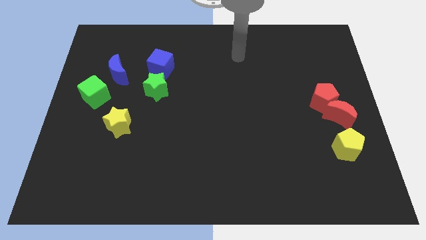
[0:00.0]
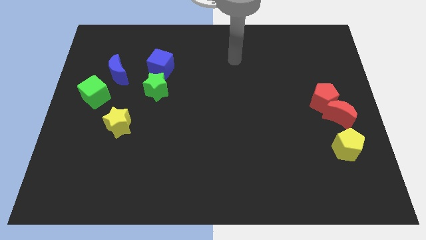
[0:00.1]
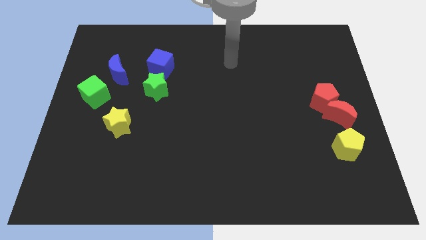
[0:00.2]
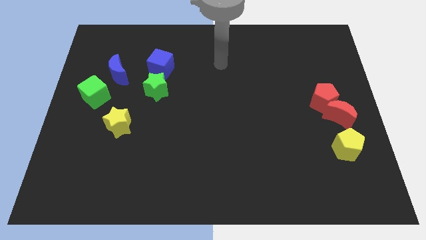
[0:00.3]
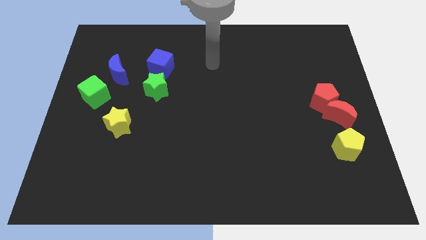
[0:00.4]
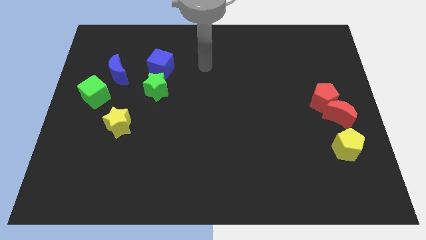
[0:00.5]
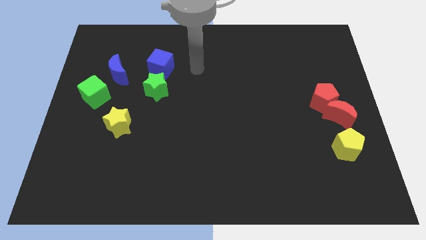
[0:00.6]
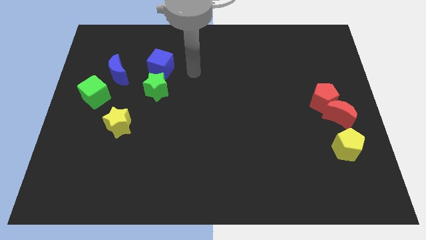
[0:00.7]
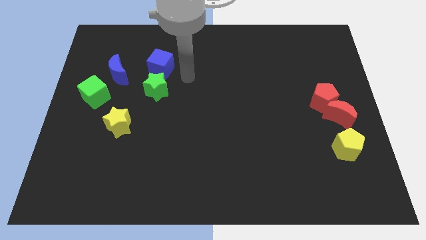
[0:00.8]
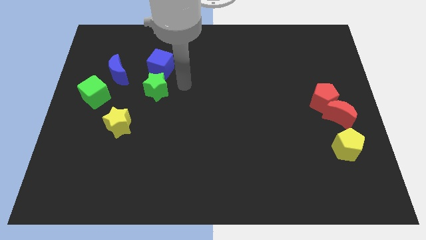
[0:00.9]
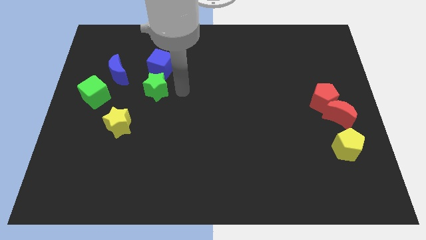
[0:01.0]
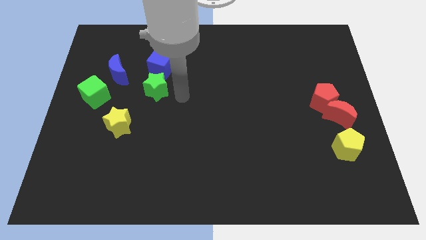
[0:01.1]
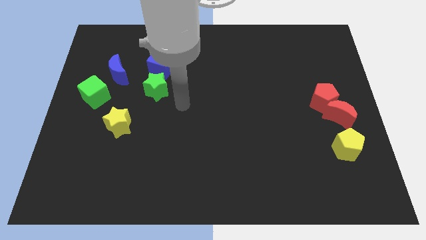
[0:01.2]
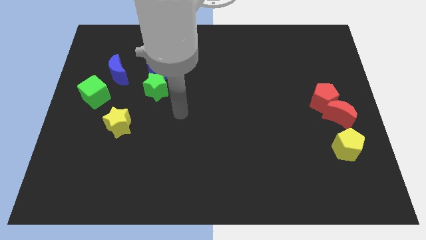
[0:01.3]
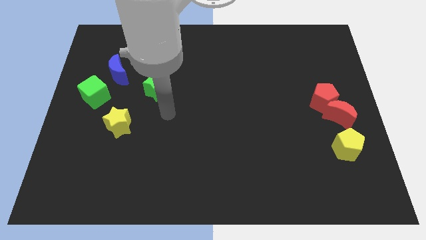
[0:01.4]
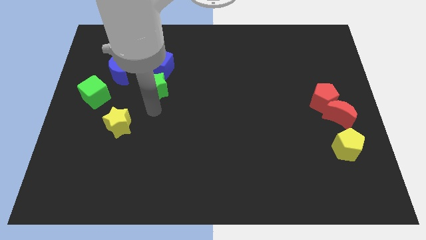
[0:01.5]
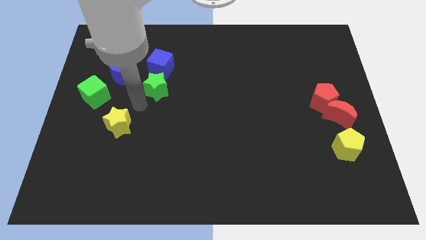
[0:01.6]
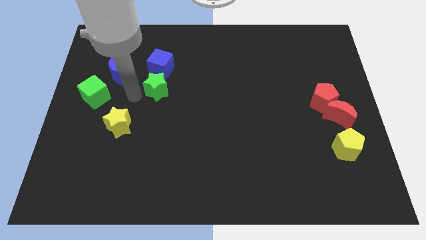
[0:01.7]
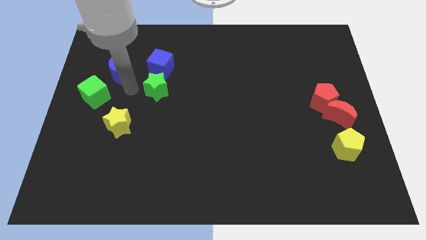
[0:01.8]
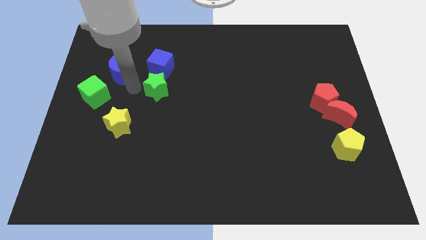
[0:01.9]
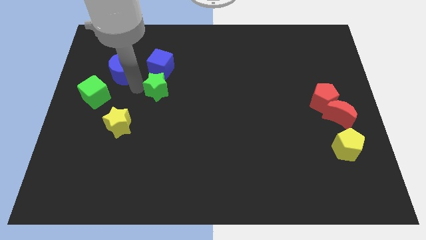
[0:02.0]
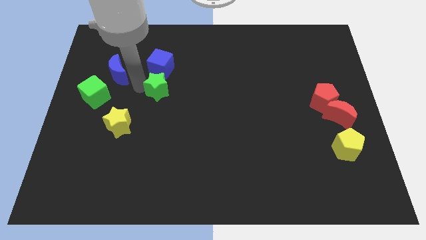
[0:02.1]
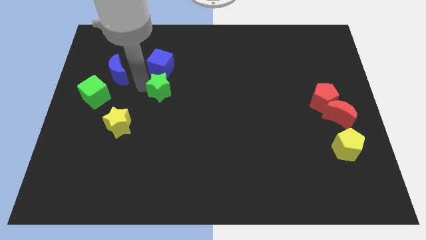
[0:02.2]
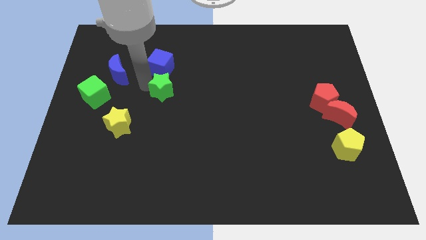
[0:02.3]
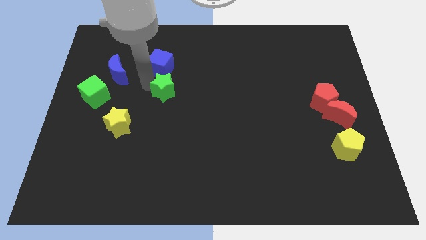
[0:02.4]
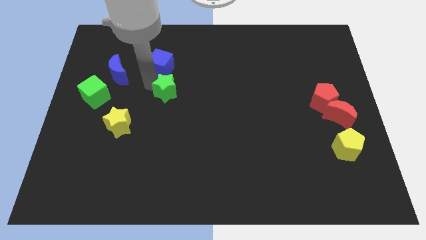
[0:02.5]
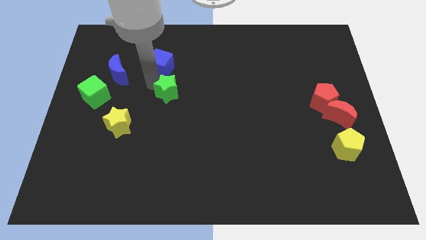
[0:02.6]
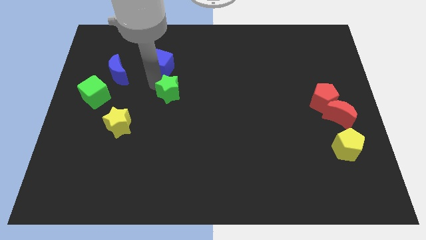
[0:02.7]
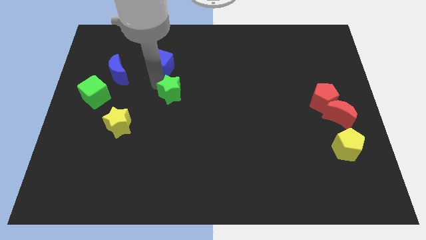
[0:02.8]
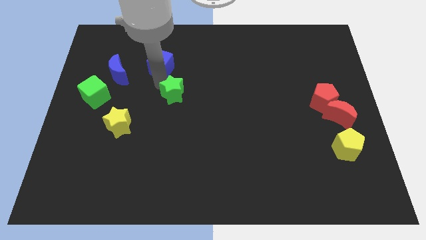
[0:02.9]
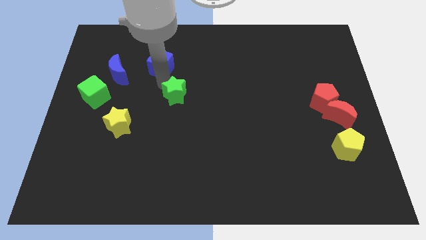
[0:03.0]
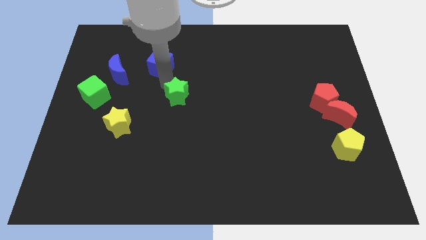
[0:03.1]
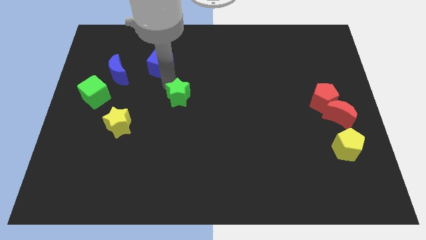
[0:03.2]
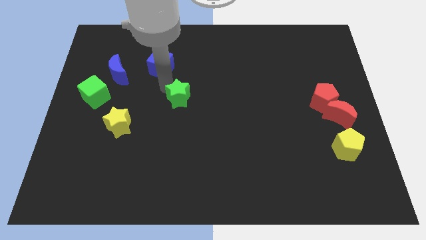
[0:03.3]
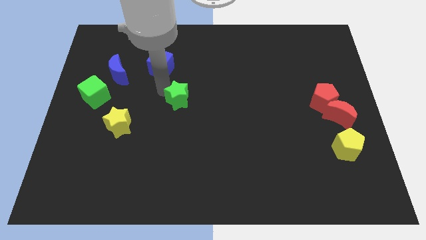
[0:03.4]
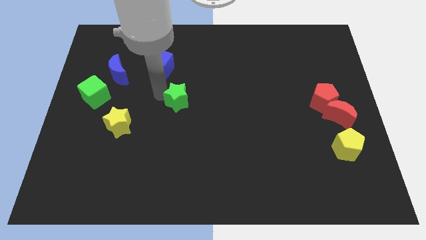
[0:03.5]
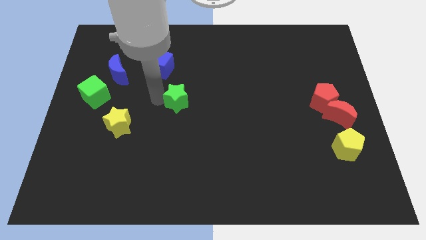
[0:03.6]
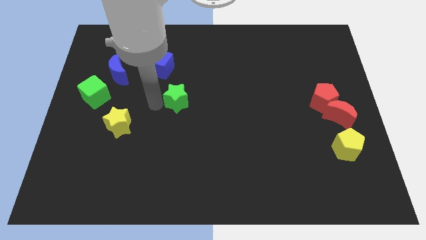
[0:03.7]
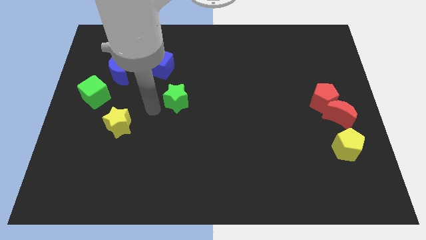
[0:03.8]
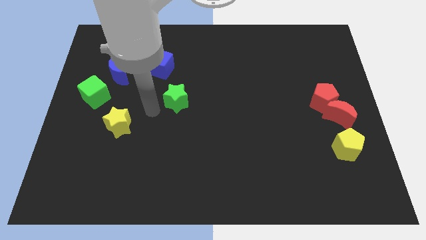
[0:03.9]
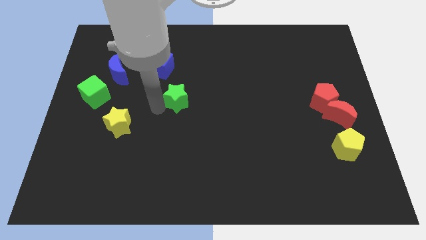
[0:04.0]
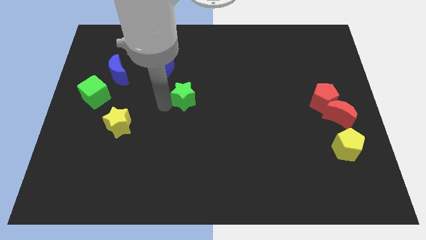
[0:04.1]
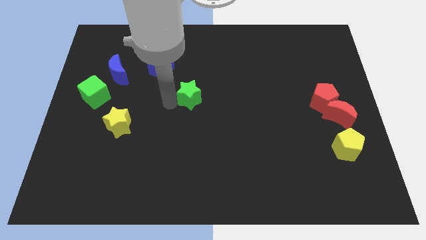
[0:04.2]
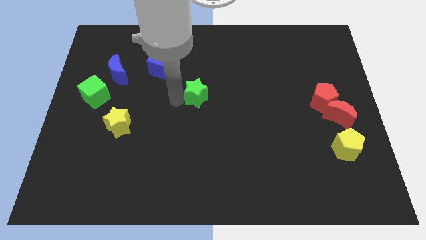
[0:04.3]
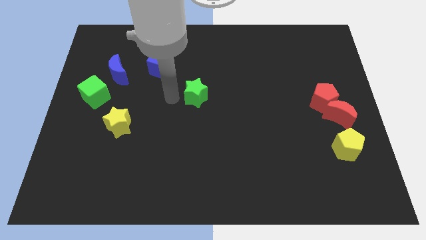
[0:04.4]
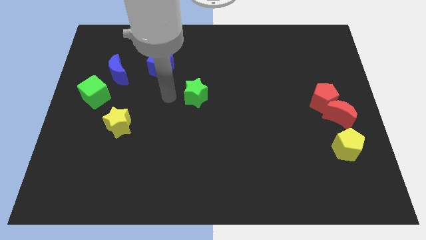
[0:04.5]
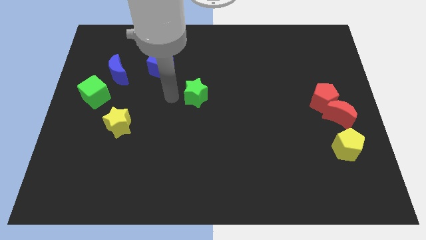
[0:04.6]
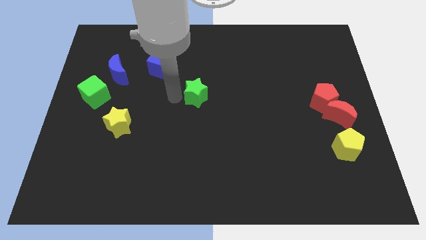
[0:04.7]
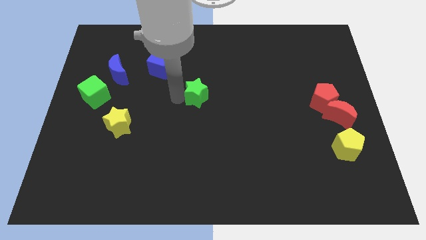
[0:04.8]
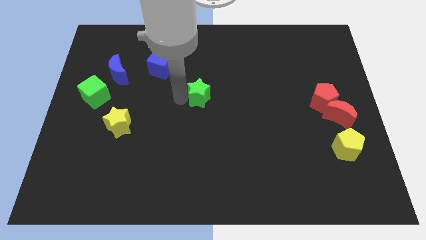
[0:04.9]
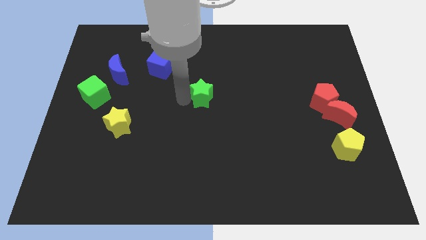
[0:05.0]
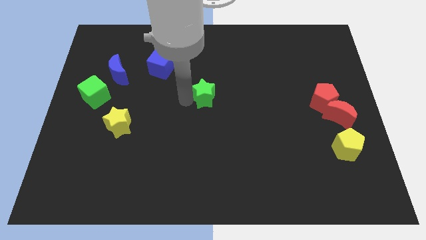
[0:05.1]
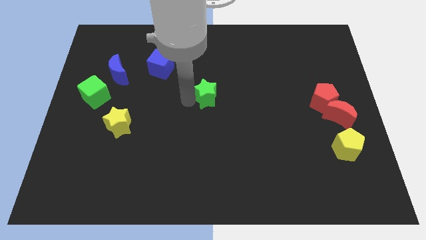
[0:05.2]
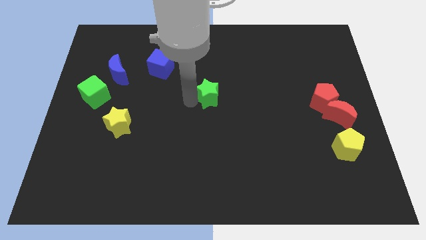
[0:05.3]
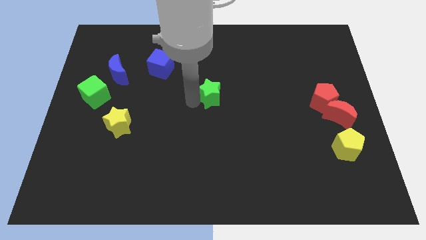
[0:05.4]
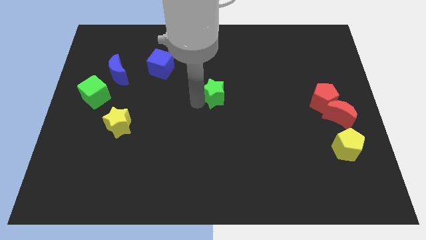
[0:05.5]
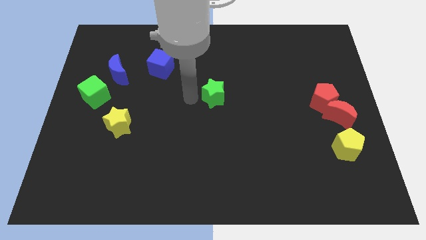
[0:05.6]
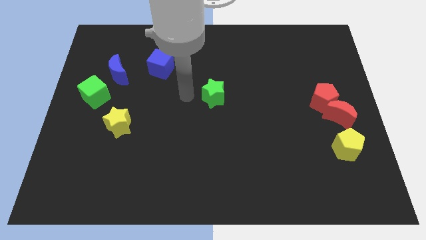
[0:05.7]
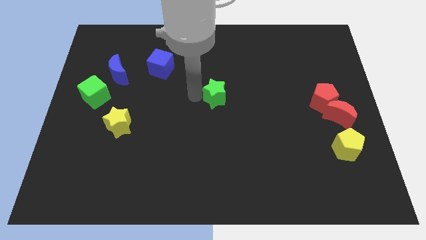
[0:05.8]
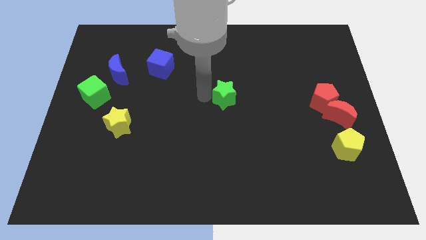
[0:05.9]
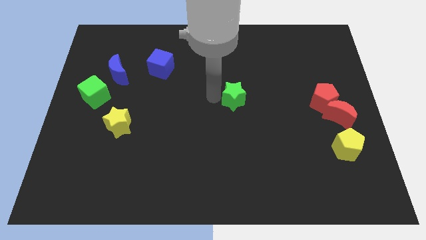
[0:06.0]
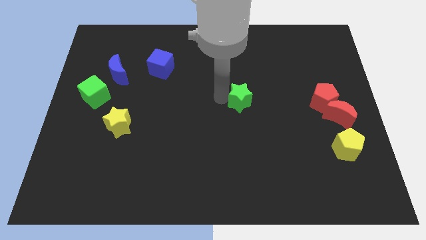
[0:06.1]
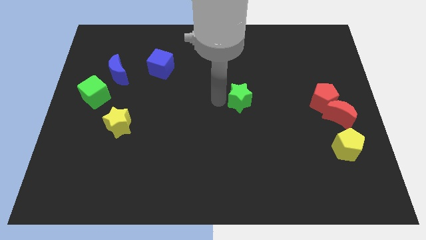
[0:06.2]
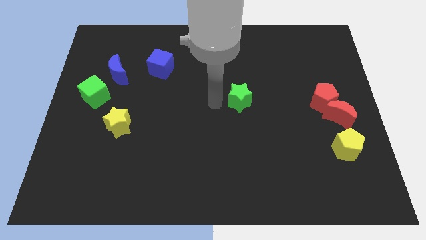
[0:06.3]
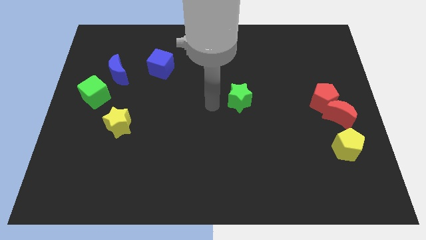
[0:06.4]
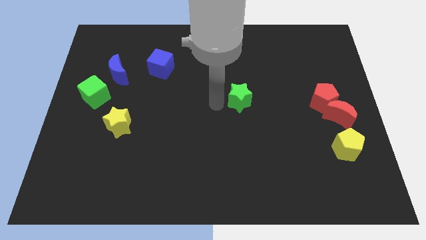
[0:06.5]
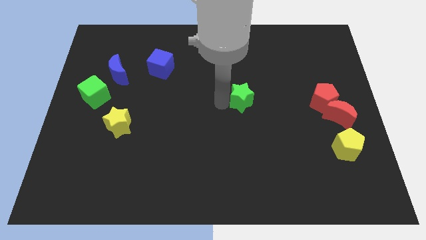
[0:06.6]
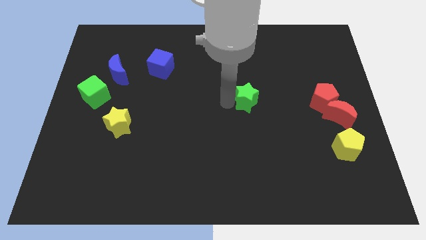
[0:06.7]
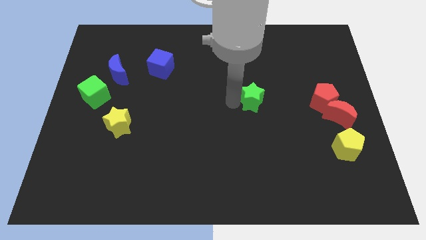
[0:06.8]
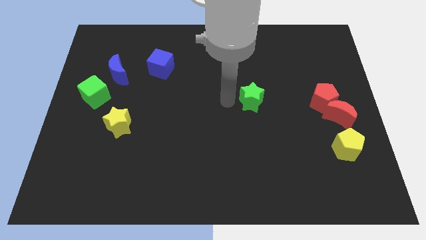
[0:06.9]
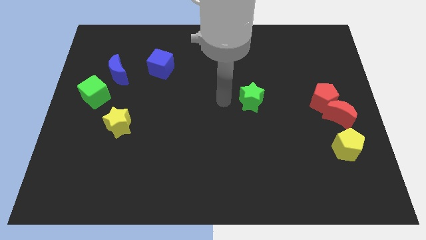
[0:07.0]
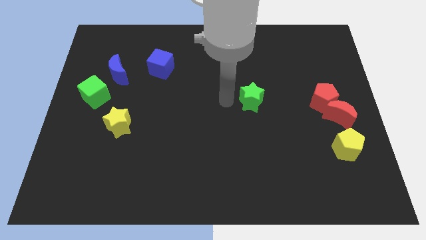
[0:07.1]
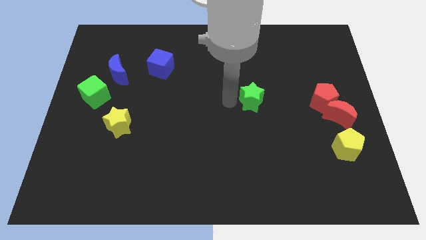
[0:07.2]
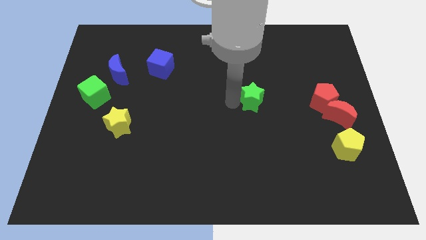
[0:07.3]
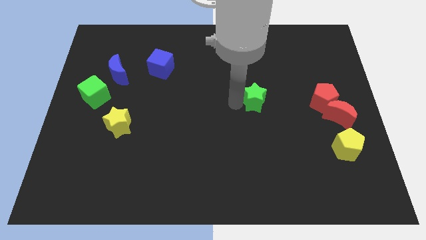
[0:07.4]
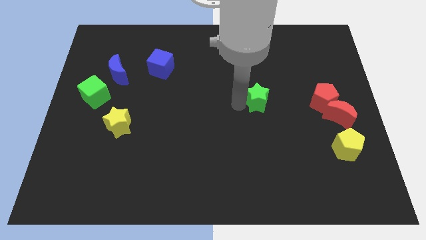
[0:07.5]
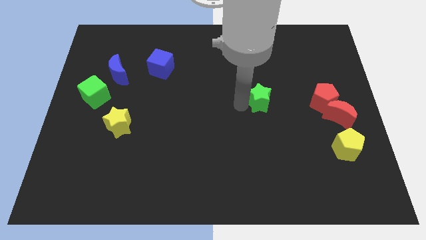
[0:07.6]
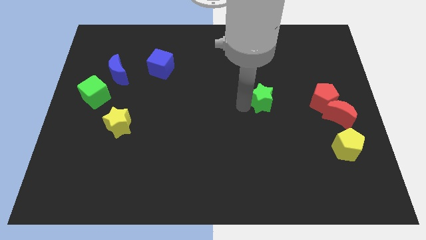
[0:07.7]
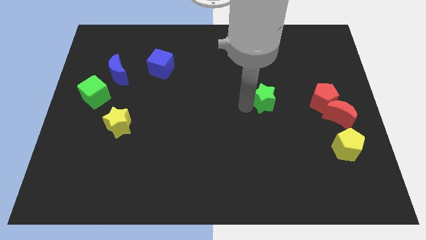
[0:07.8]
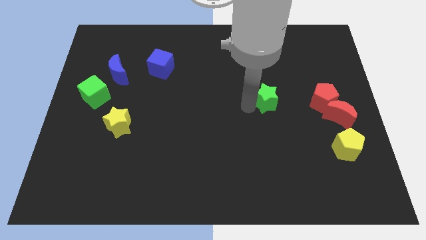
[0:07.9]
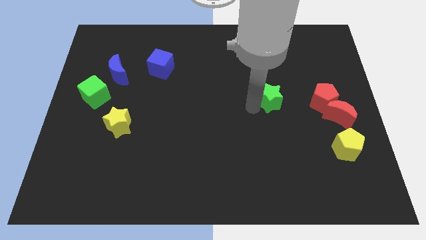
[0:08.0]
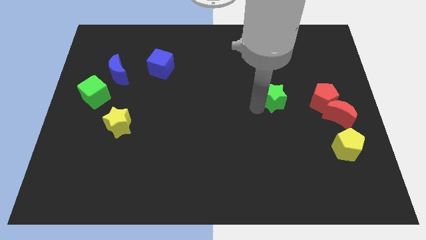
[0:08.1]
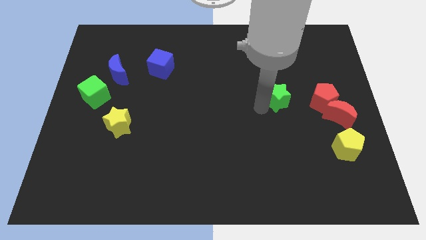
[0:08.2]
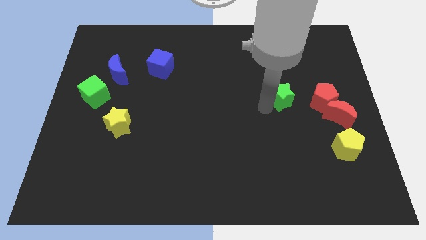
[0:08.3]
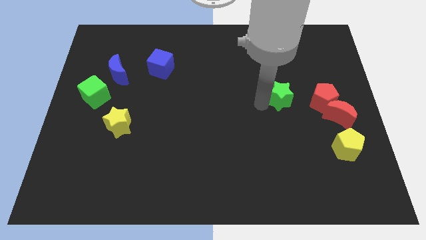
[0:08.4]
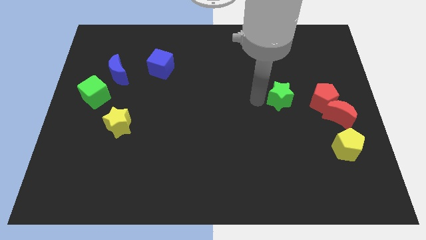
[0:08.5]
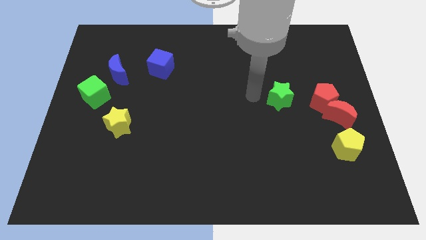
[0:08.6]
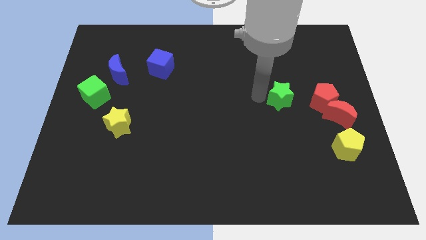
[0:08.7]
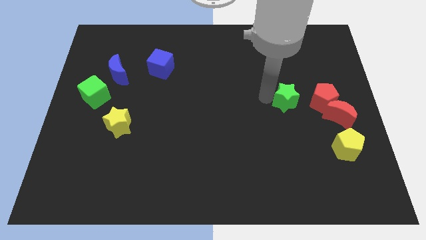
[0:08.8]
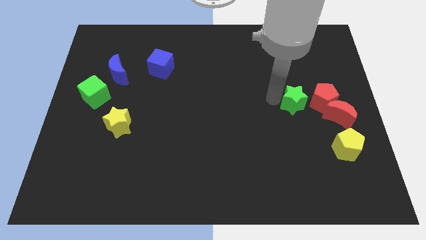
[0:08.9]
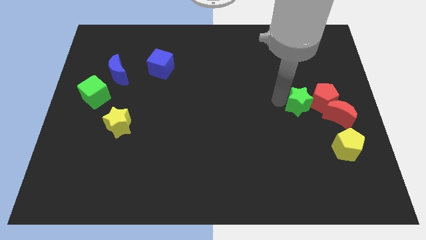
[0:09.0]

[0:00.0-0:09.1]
push the green star towards the red pentagon
